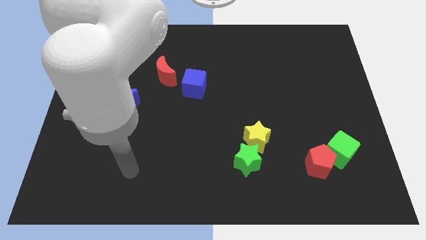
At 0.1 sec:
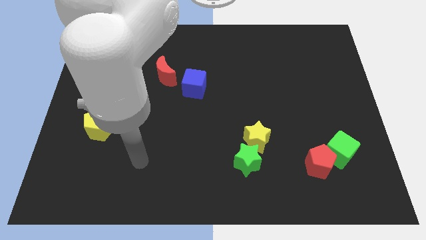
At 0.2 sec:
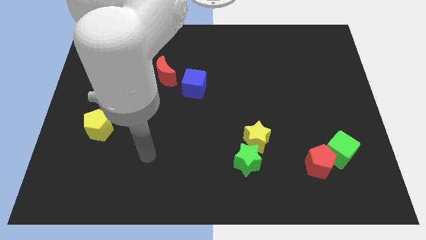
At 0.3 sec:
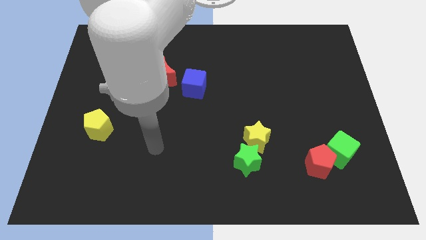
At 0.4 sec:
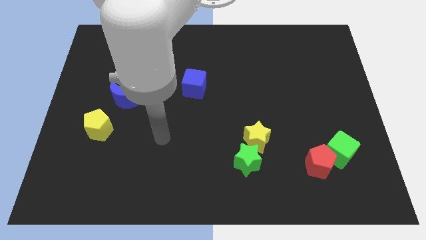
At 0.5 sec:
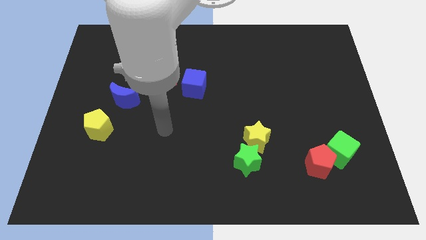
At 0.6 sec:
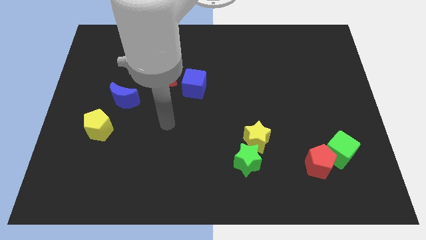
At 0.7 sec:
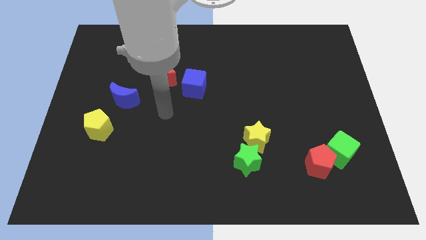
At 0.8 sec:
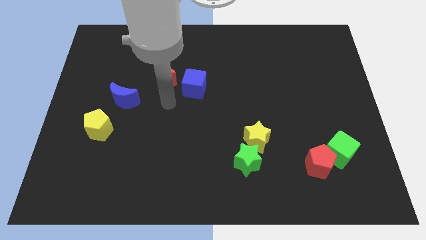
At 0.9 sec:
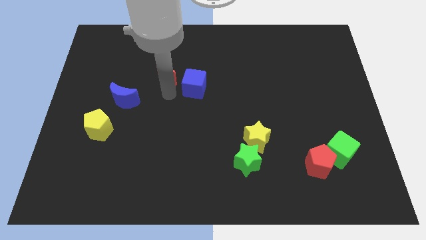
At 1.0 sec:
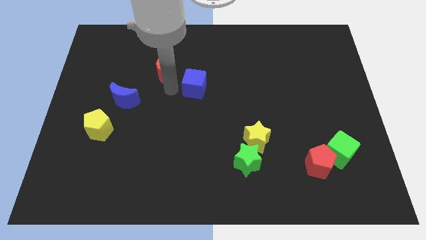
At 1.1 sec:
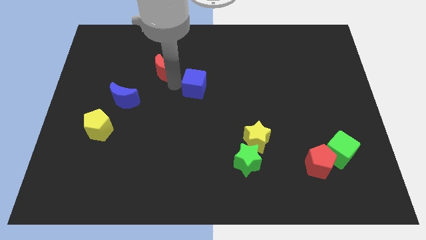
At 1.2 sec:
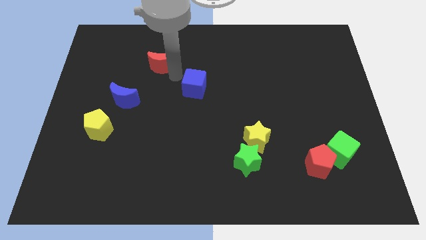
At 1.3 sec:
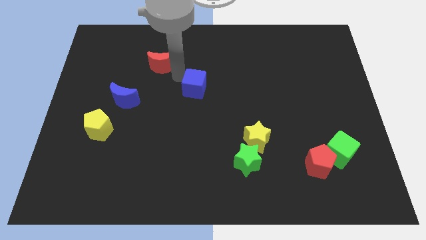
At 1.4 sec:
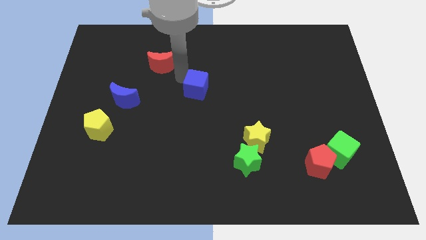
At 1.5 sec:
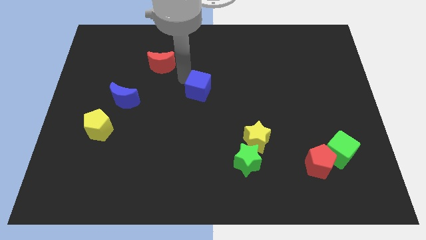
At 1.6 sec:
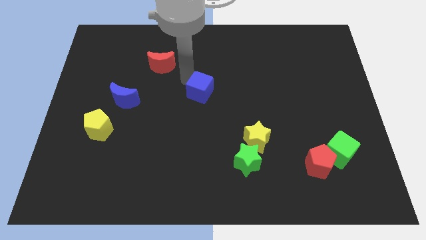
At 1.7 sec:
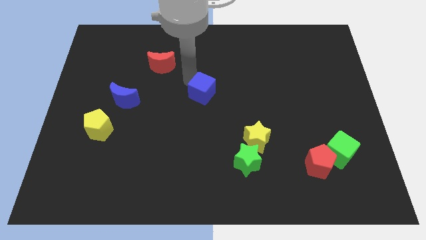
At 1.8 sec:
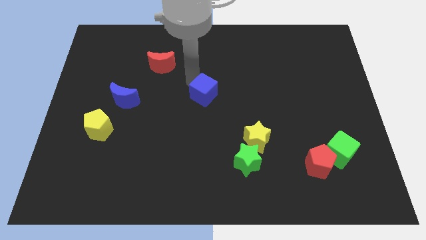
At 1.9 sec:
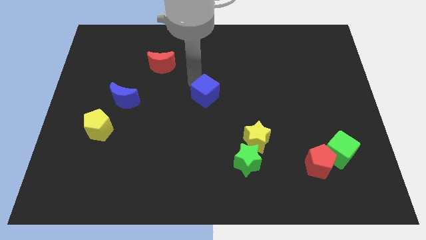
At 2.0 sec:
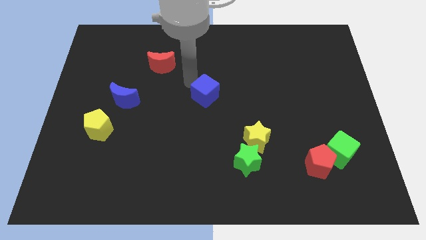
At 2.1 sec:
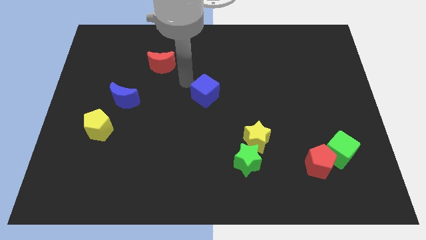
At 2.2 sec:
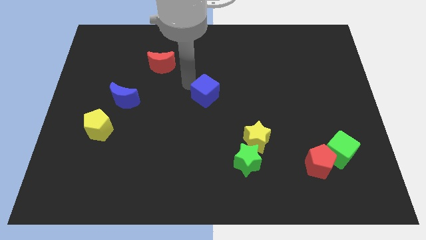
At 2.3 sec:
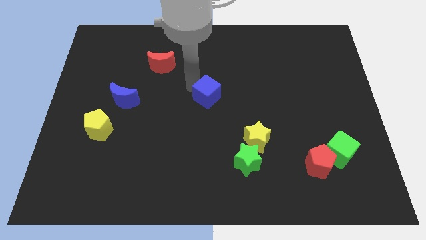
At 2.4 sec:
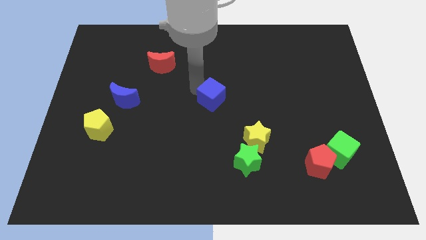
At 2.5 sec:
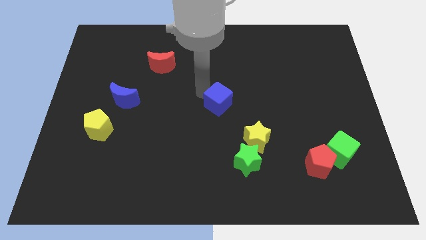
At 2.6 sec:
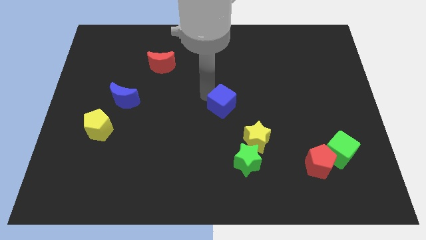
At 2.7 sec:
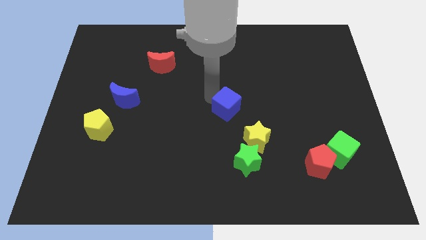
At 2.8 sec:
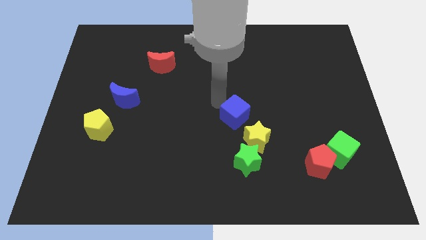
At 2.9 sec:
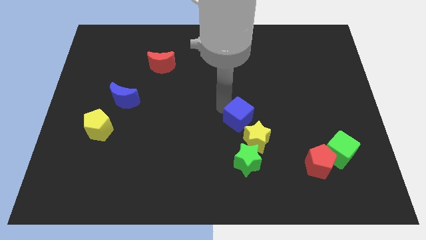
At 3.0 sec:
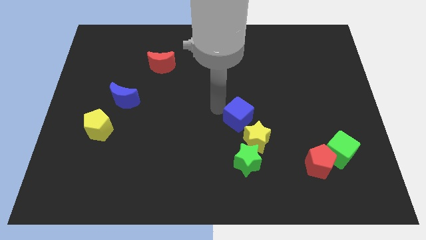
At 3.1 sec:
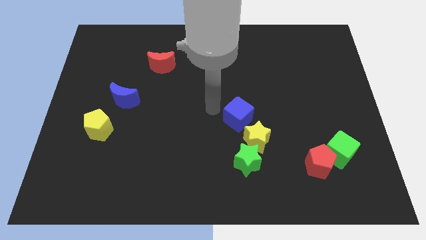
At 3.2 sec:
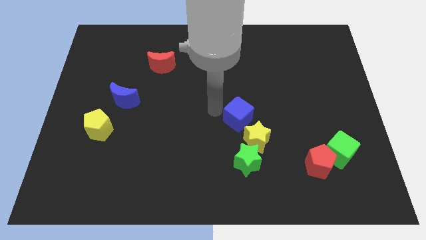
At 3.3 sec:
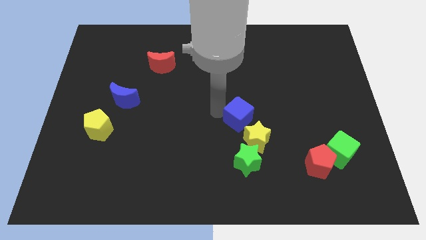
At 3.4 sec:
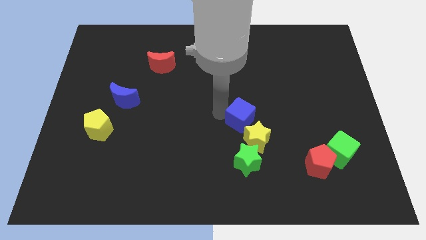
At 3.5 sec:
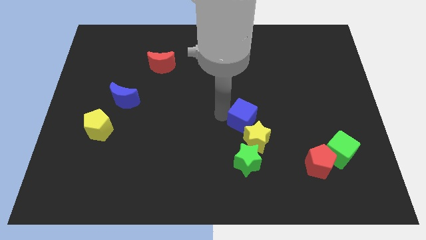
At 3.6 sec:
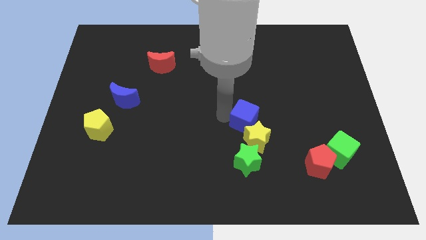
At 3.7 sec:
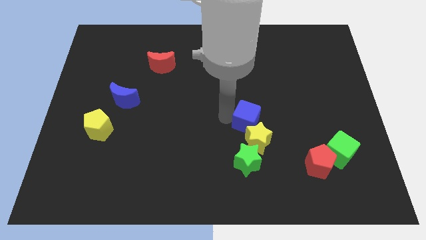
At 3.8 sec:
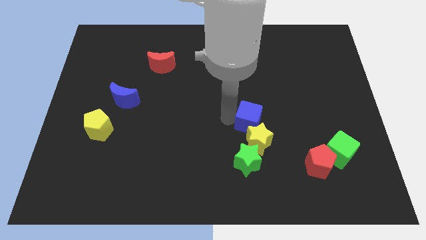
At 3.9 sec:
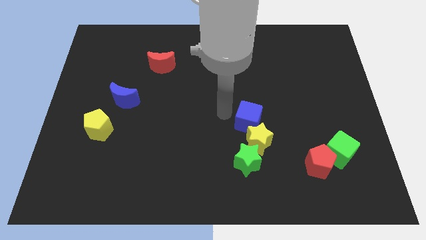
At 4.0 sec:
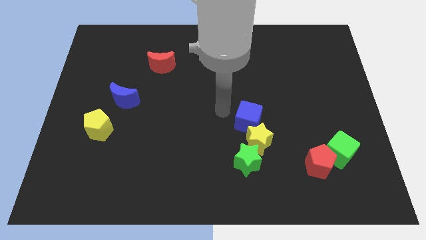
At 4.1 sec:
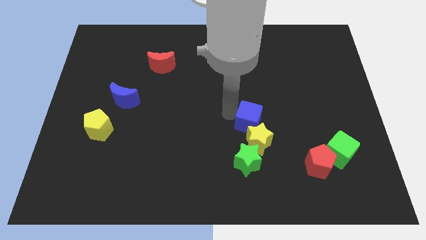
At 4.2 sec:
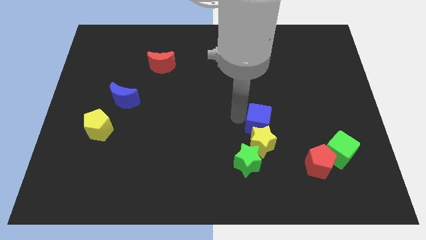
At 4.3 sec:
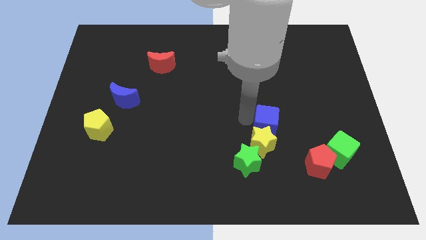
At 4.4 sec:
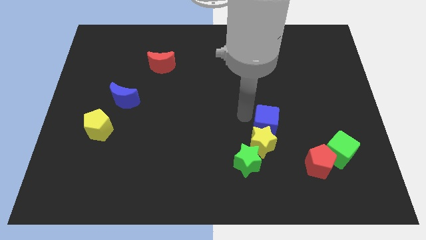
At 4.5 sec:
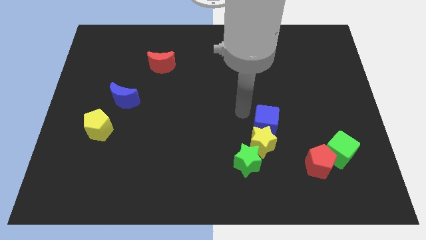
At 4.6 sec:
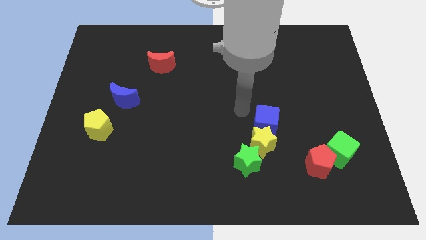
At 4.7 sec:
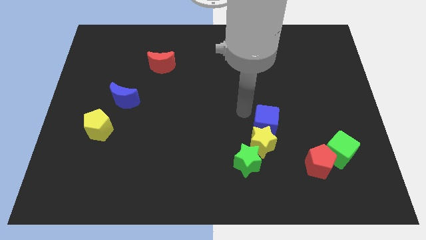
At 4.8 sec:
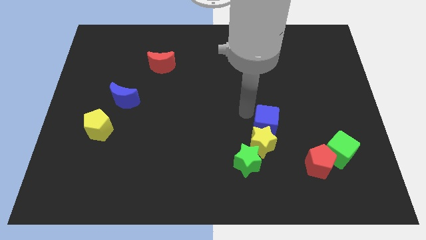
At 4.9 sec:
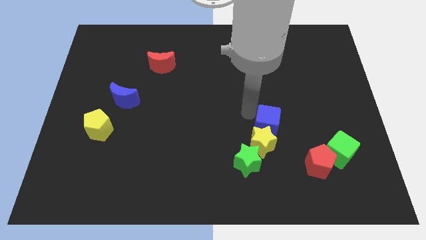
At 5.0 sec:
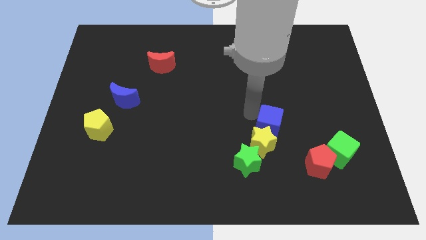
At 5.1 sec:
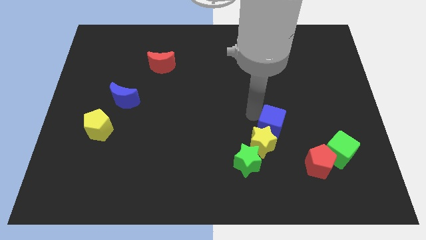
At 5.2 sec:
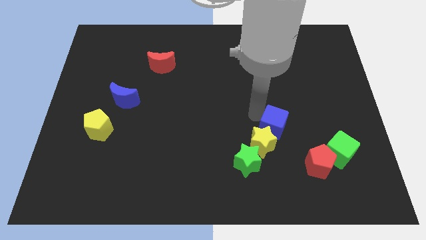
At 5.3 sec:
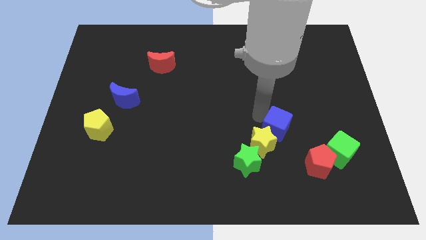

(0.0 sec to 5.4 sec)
move the blue cube to the right of the yellow star

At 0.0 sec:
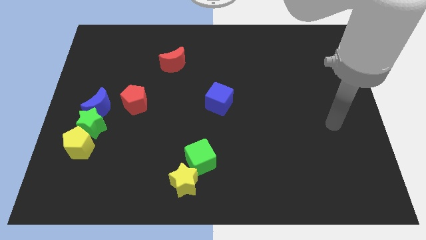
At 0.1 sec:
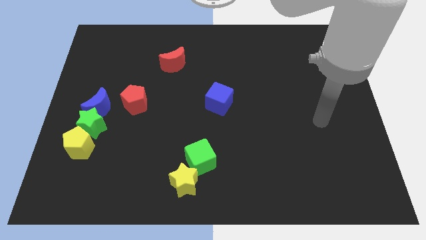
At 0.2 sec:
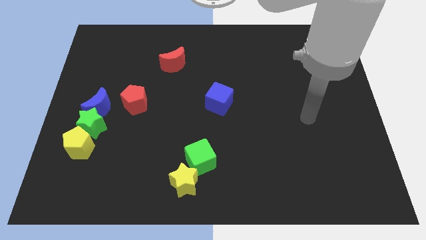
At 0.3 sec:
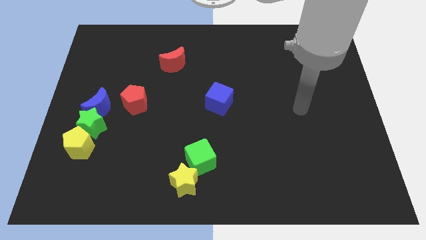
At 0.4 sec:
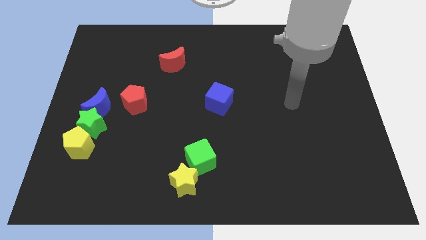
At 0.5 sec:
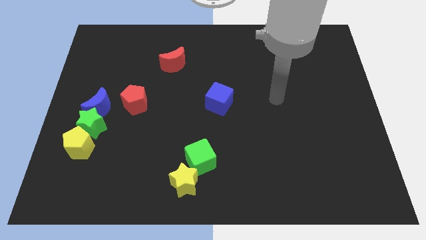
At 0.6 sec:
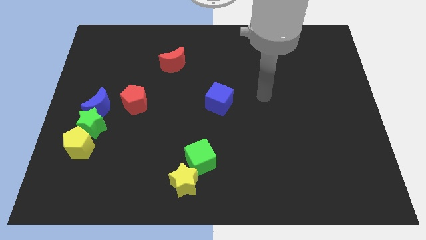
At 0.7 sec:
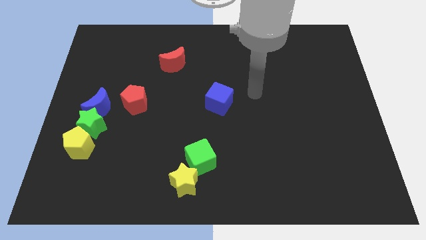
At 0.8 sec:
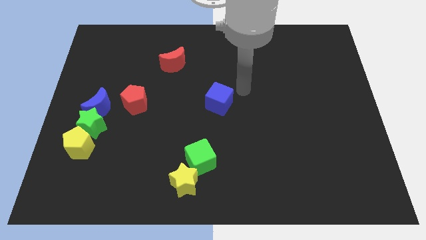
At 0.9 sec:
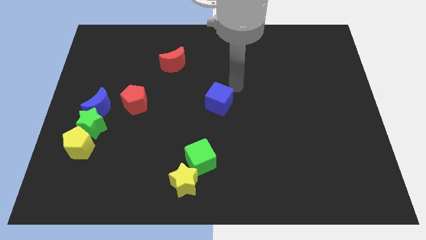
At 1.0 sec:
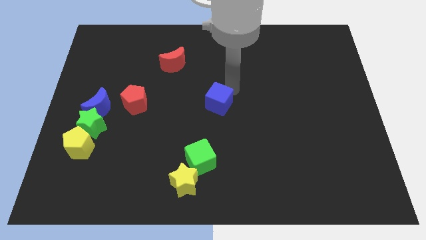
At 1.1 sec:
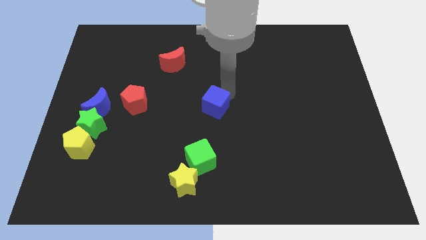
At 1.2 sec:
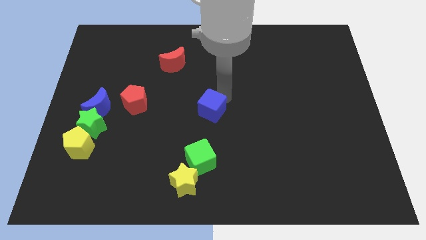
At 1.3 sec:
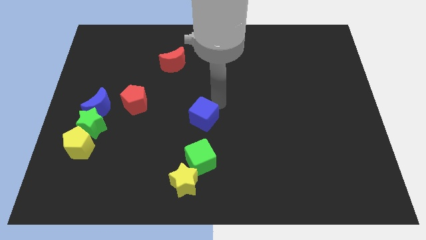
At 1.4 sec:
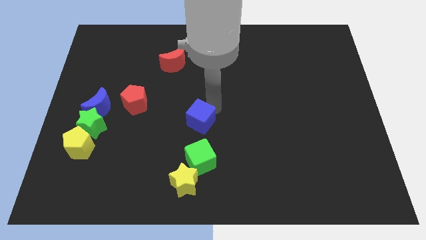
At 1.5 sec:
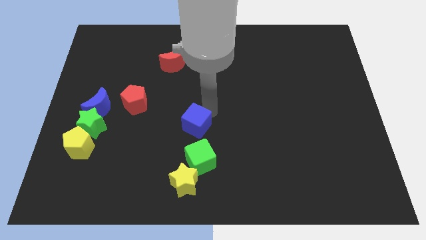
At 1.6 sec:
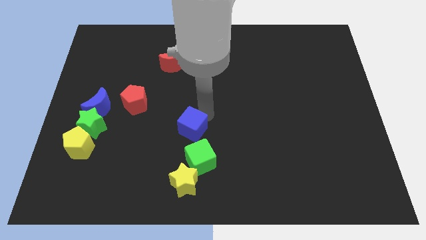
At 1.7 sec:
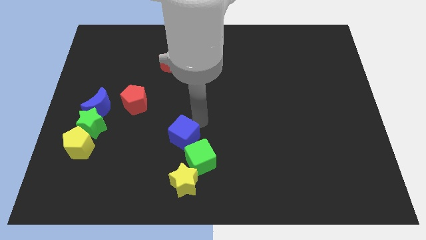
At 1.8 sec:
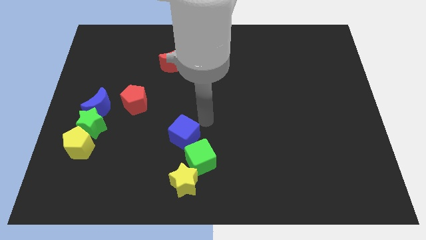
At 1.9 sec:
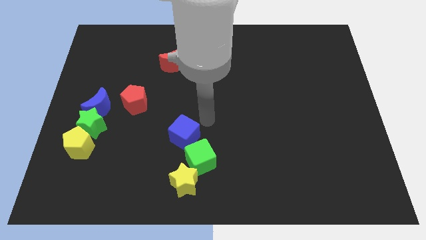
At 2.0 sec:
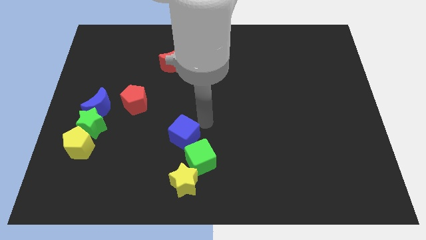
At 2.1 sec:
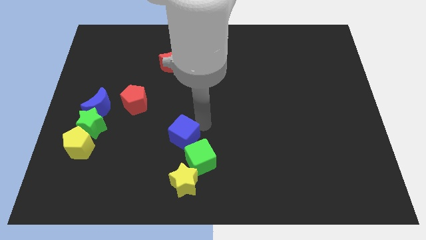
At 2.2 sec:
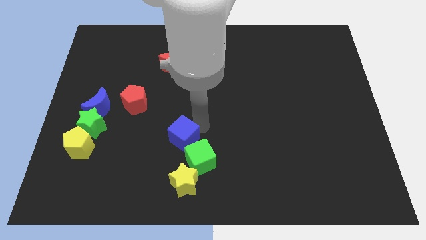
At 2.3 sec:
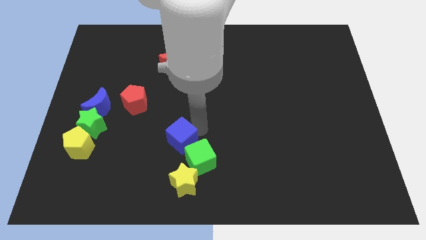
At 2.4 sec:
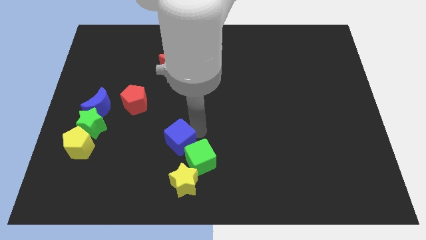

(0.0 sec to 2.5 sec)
move the blue cube to the left of the green cube
